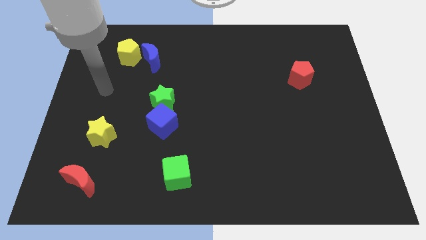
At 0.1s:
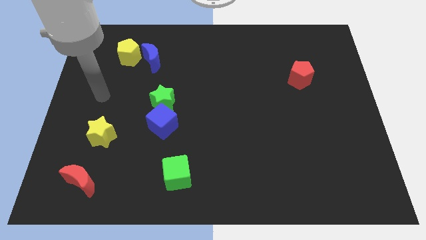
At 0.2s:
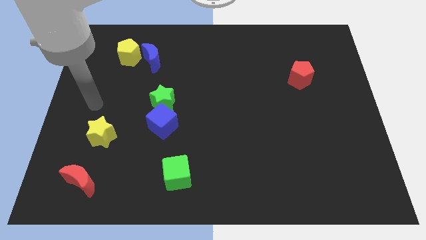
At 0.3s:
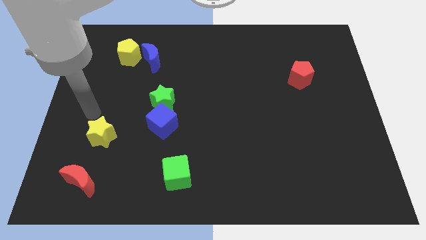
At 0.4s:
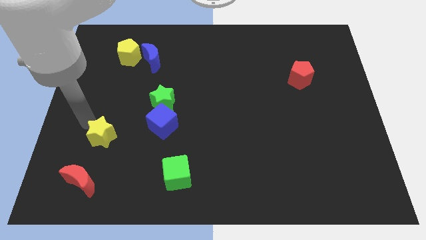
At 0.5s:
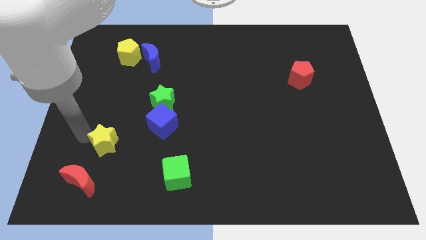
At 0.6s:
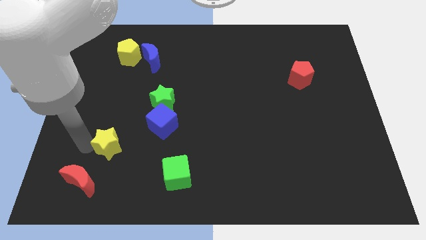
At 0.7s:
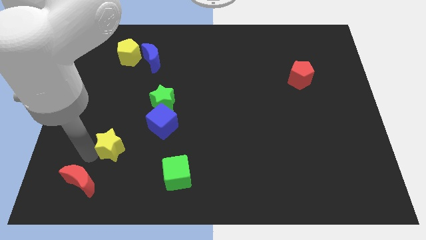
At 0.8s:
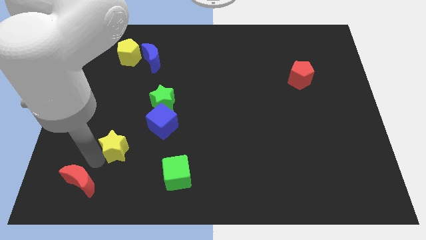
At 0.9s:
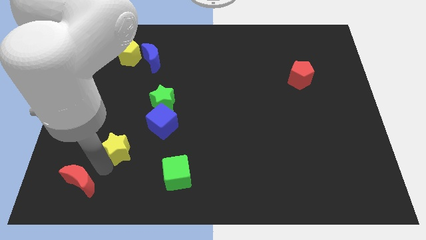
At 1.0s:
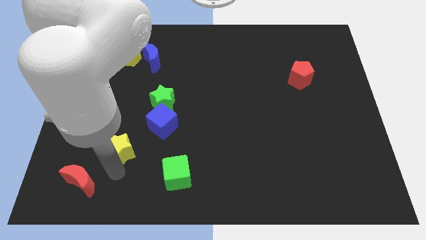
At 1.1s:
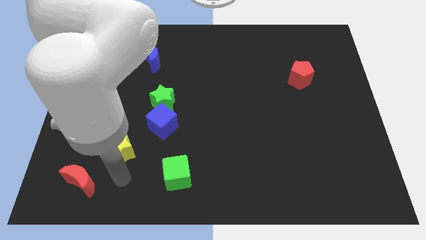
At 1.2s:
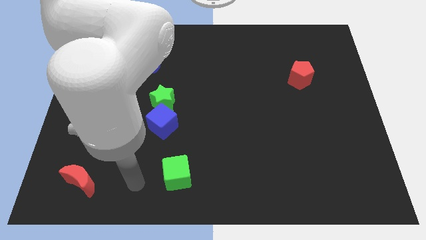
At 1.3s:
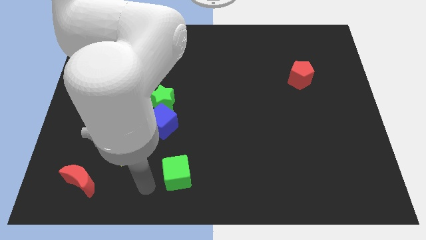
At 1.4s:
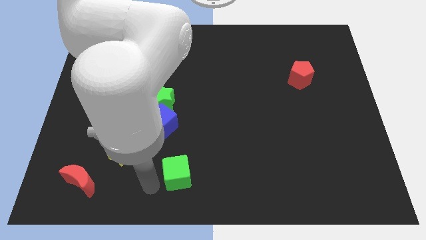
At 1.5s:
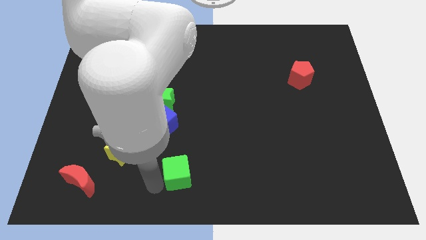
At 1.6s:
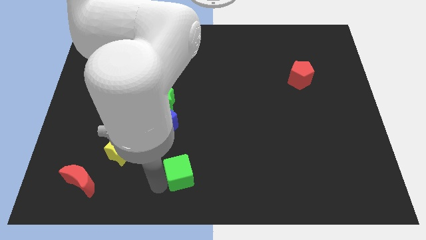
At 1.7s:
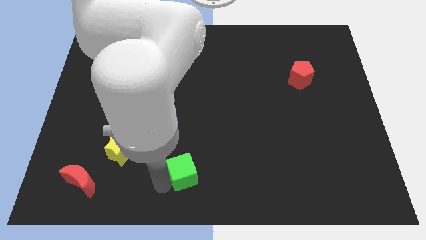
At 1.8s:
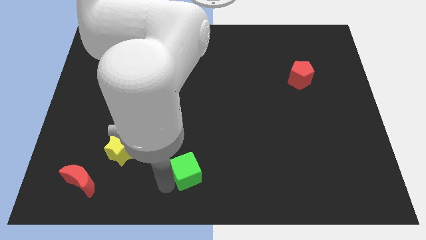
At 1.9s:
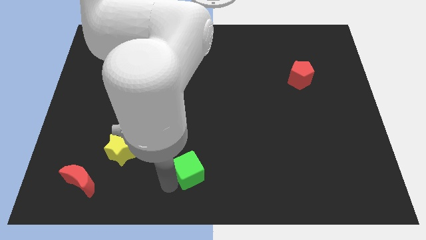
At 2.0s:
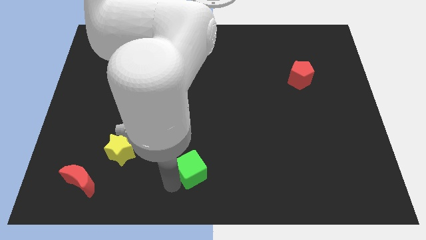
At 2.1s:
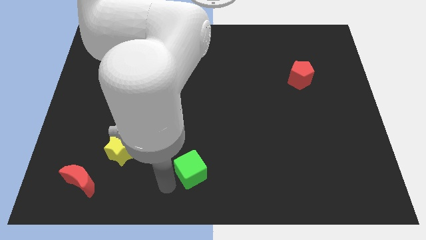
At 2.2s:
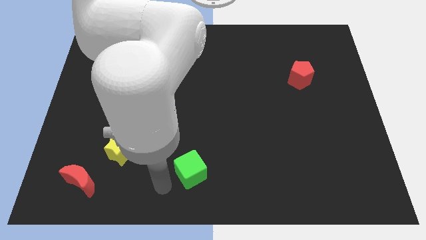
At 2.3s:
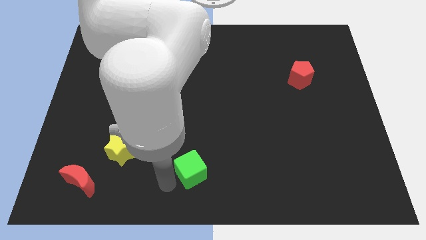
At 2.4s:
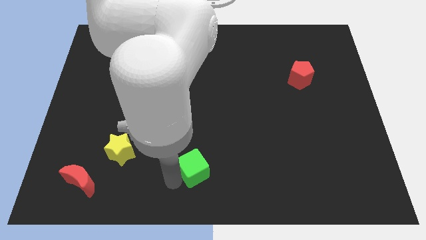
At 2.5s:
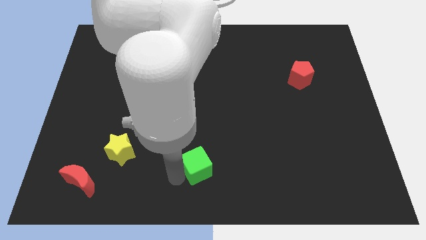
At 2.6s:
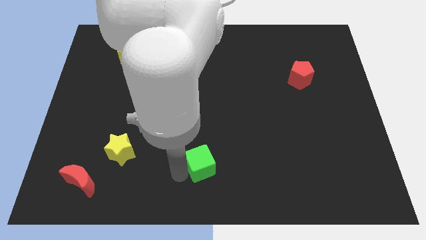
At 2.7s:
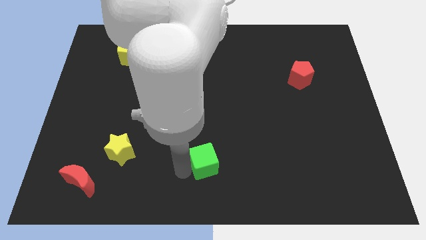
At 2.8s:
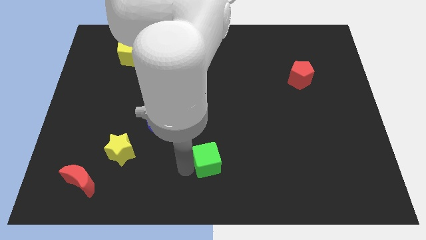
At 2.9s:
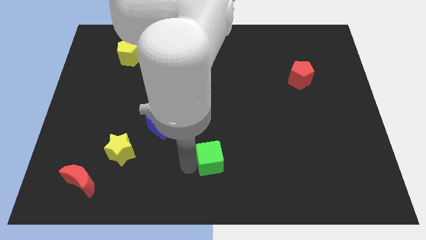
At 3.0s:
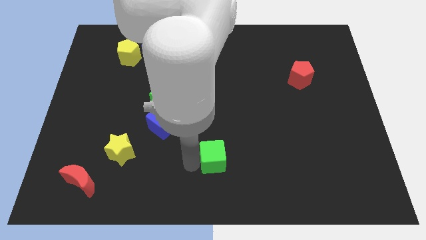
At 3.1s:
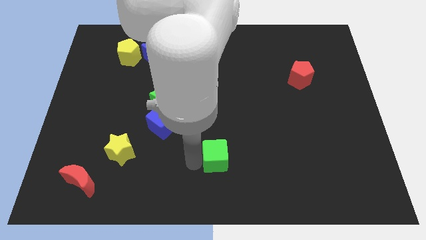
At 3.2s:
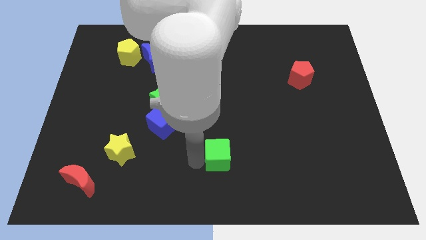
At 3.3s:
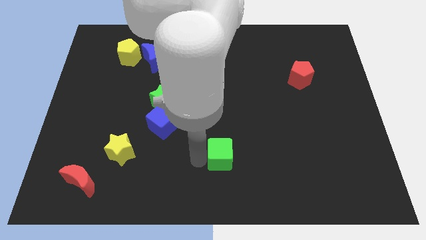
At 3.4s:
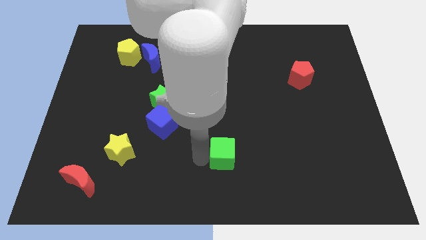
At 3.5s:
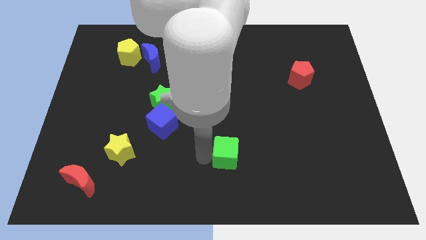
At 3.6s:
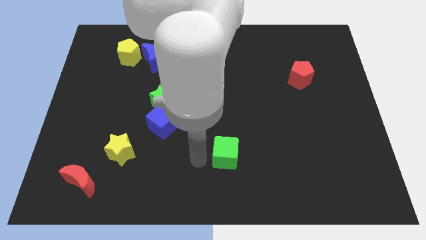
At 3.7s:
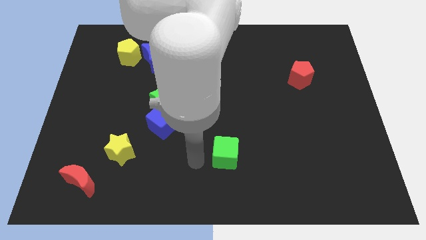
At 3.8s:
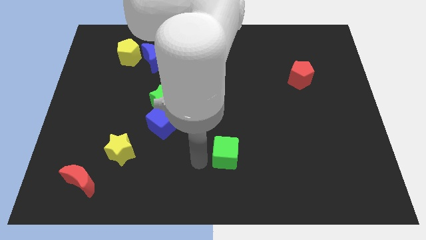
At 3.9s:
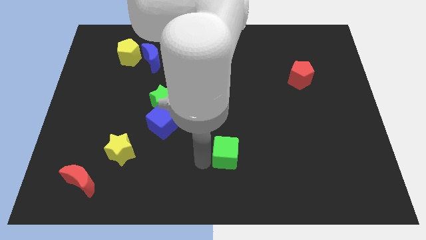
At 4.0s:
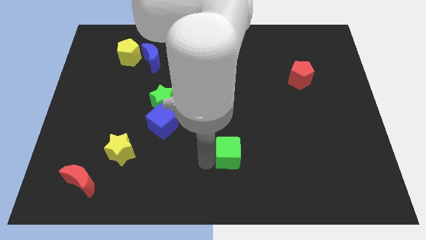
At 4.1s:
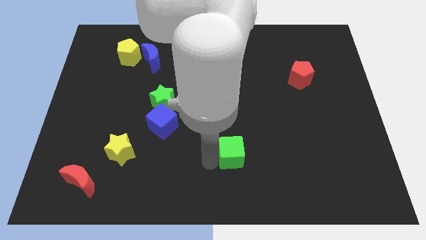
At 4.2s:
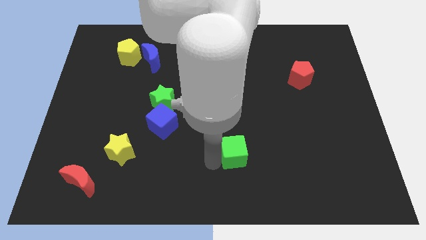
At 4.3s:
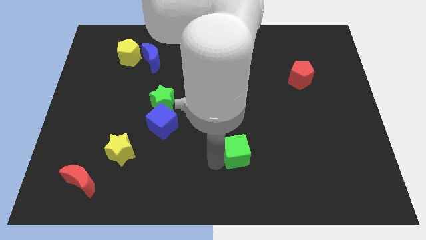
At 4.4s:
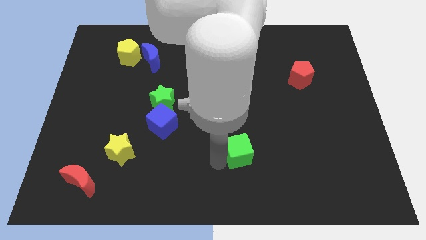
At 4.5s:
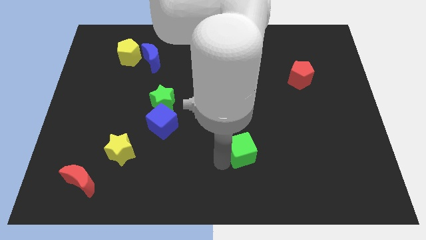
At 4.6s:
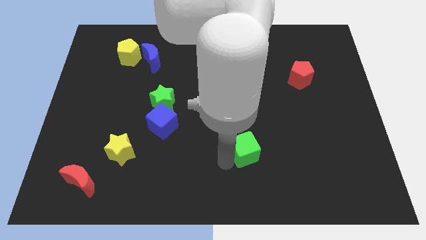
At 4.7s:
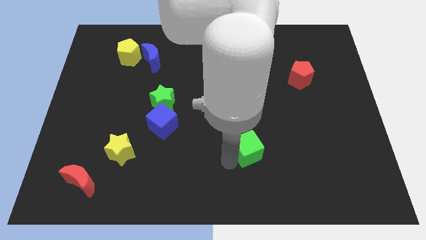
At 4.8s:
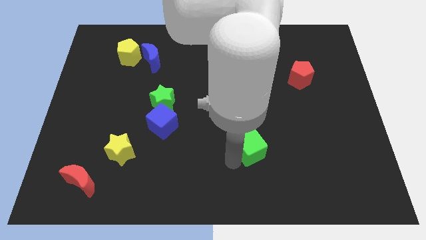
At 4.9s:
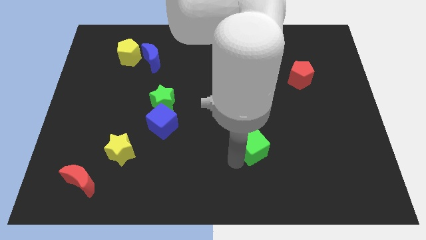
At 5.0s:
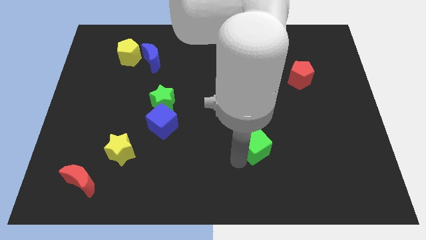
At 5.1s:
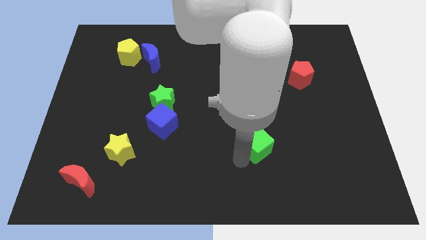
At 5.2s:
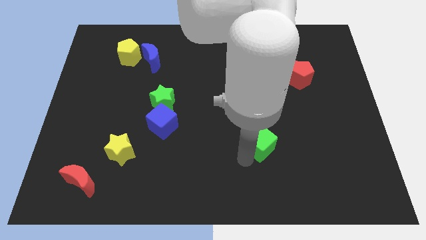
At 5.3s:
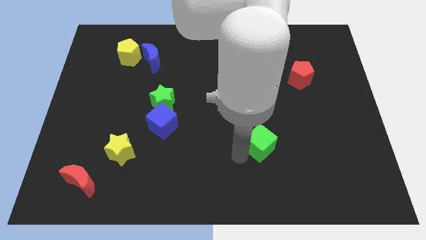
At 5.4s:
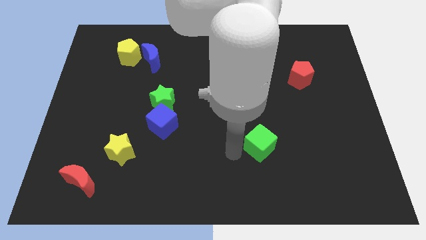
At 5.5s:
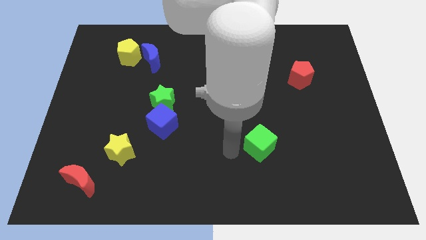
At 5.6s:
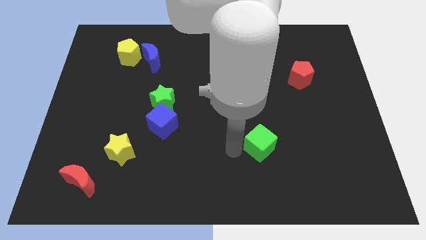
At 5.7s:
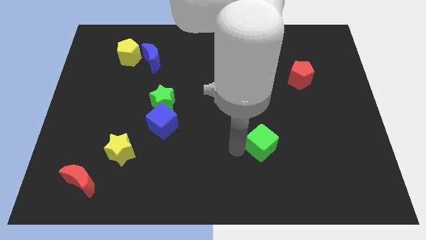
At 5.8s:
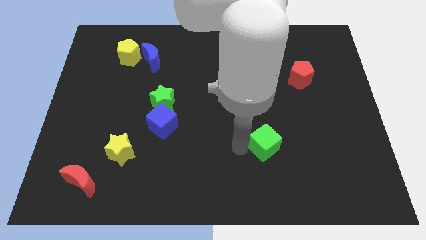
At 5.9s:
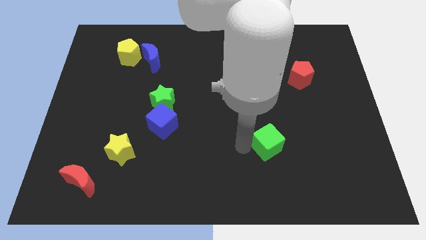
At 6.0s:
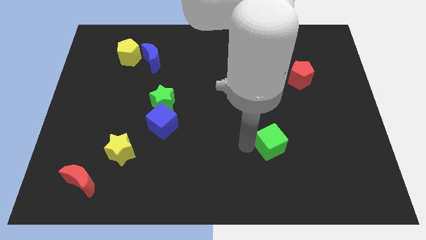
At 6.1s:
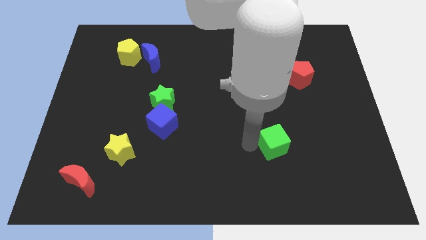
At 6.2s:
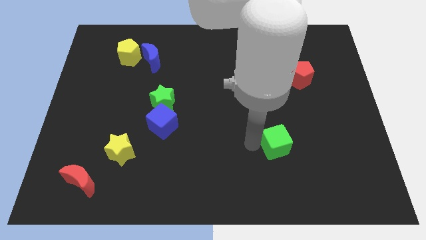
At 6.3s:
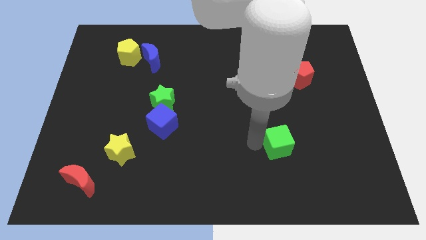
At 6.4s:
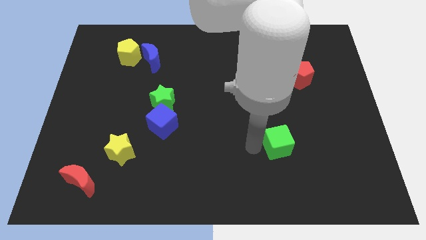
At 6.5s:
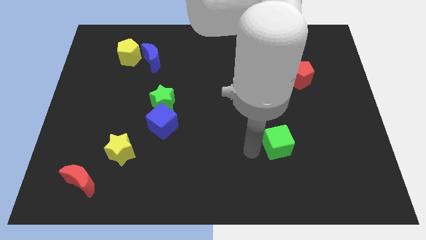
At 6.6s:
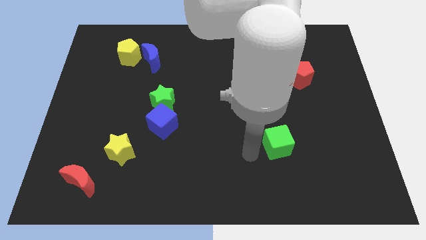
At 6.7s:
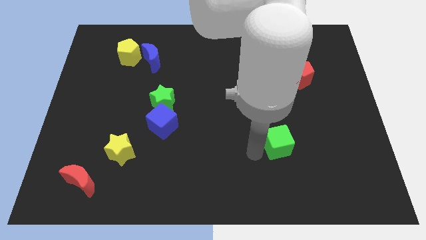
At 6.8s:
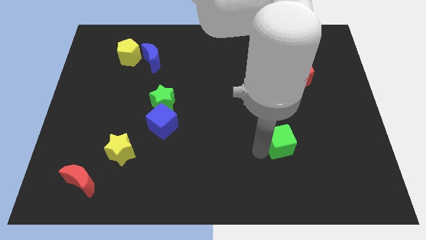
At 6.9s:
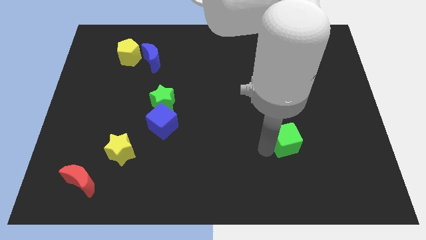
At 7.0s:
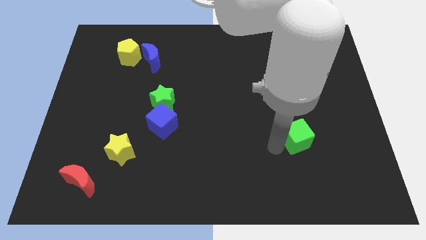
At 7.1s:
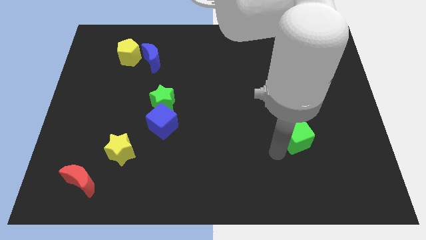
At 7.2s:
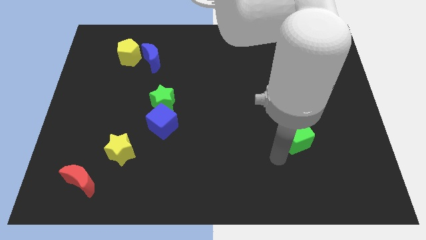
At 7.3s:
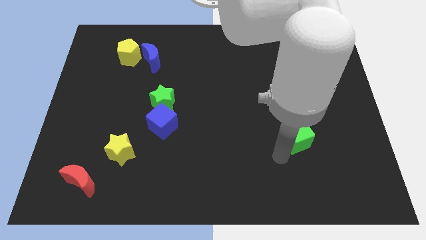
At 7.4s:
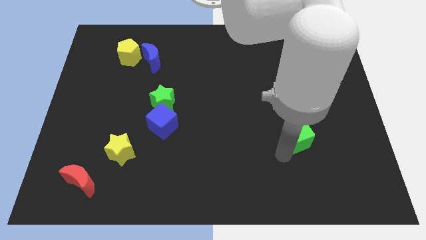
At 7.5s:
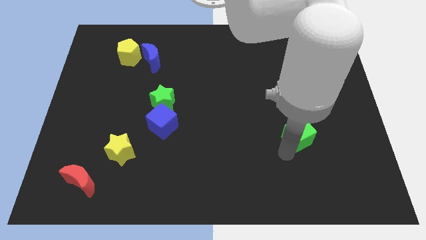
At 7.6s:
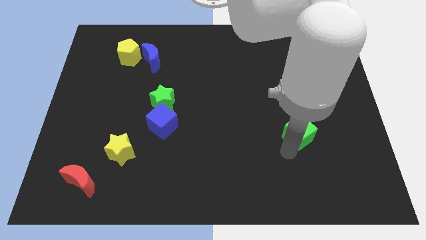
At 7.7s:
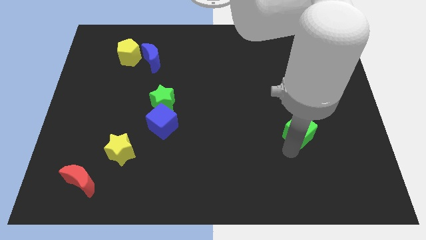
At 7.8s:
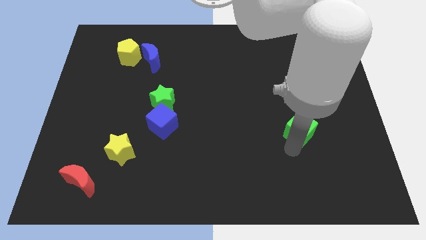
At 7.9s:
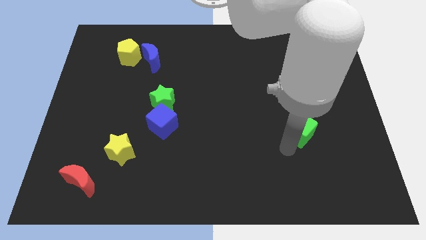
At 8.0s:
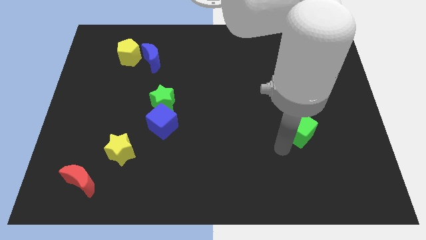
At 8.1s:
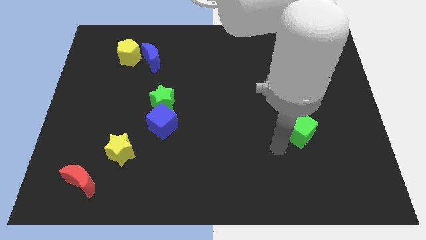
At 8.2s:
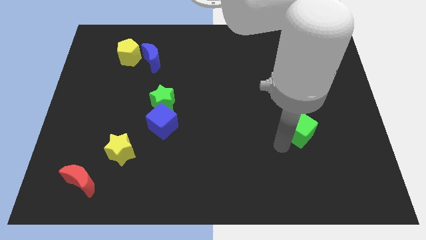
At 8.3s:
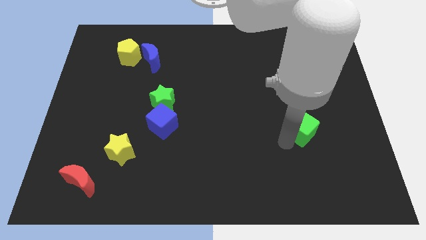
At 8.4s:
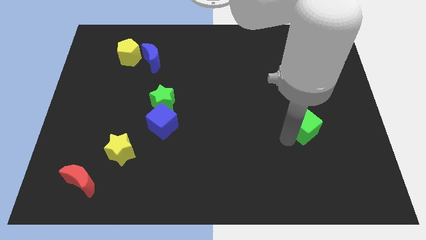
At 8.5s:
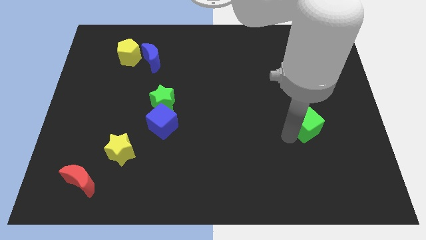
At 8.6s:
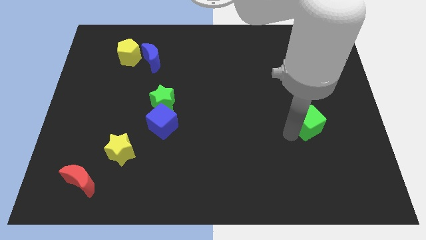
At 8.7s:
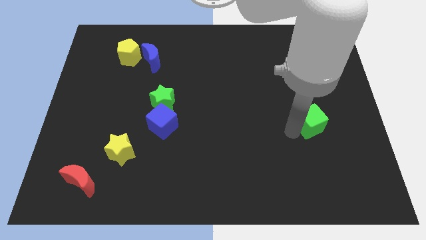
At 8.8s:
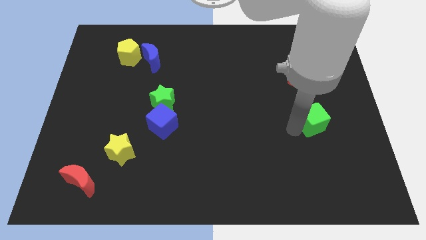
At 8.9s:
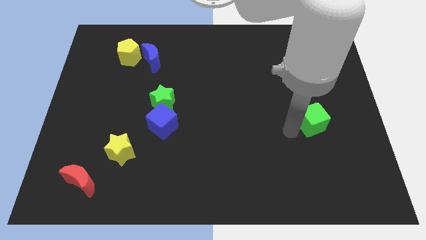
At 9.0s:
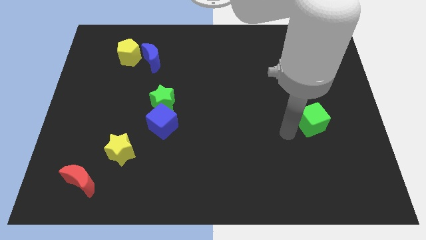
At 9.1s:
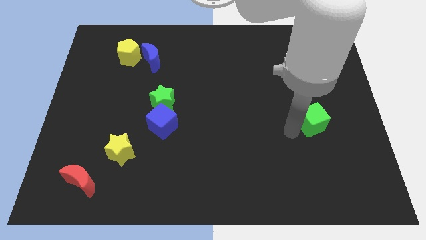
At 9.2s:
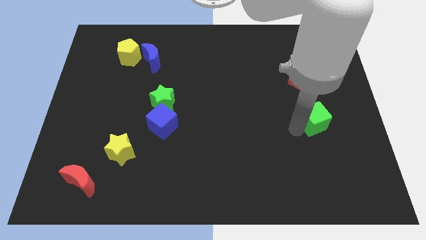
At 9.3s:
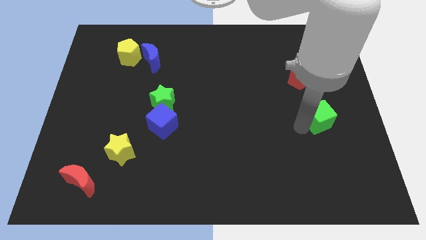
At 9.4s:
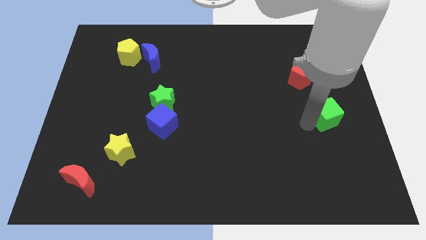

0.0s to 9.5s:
put the green cube to the right side
